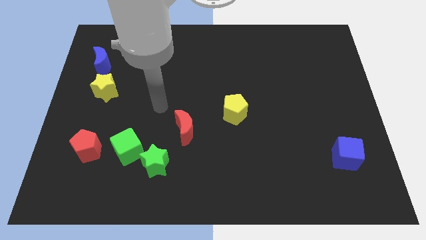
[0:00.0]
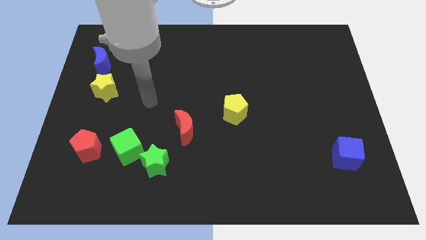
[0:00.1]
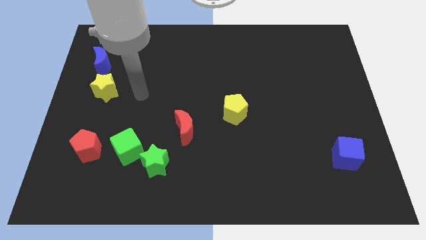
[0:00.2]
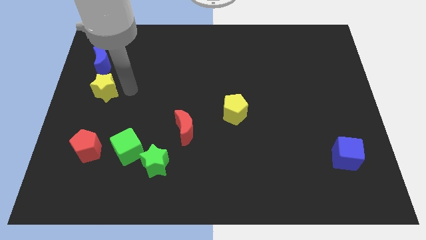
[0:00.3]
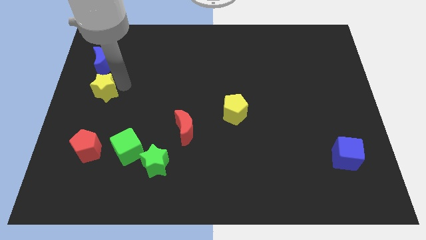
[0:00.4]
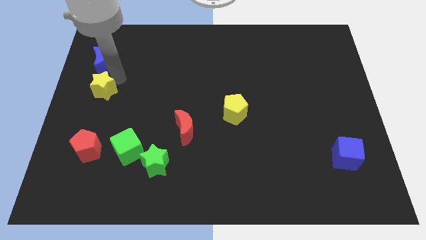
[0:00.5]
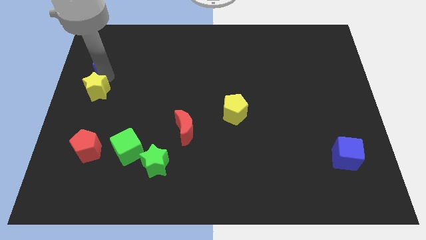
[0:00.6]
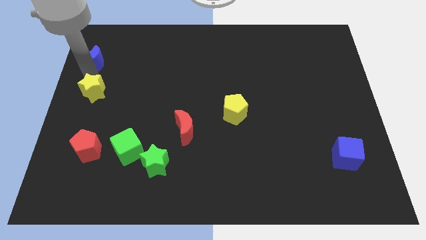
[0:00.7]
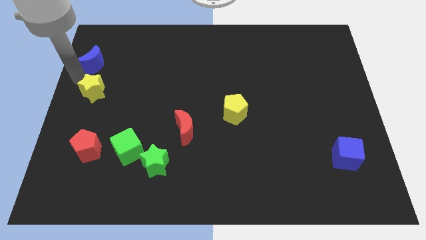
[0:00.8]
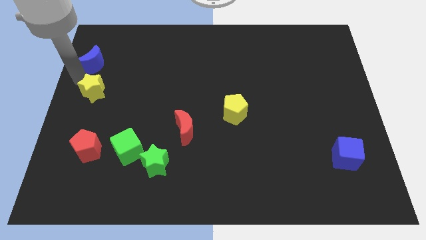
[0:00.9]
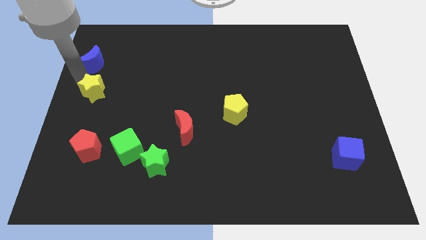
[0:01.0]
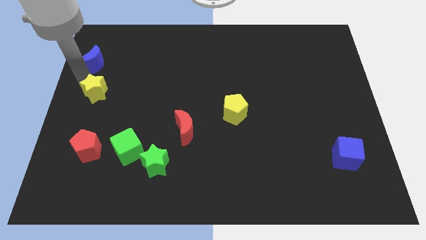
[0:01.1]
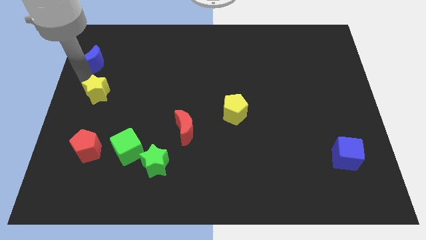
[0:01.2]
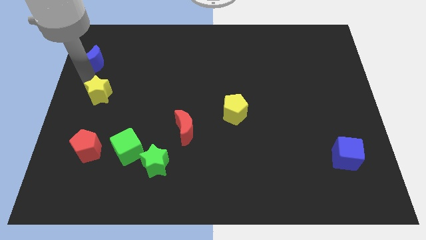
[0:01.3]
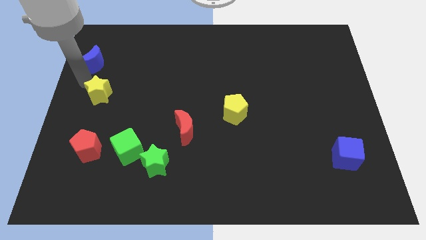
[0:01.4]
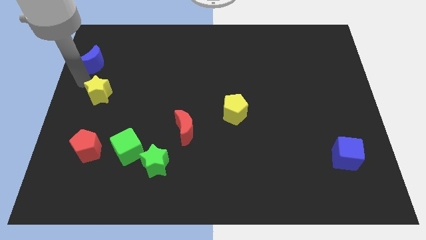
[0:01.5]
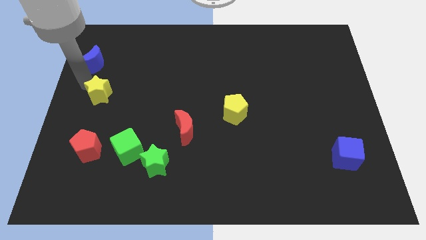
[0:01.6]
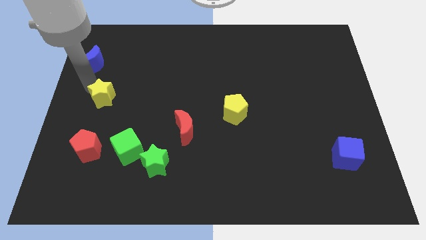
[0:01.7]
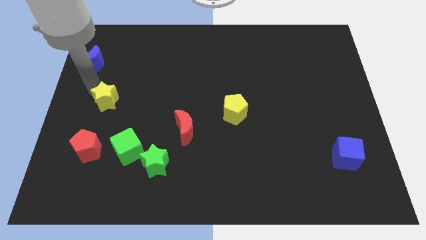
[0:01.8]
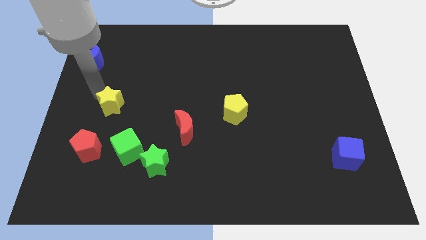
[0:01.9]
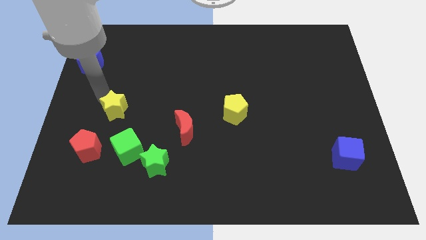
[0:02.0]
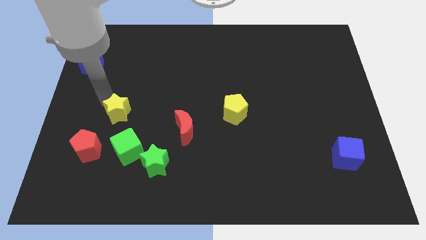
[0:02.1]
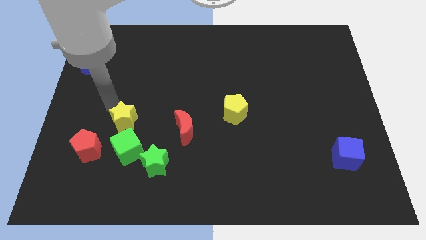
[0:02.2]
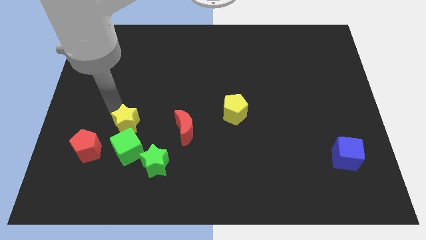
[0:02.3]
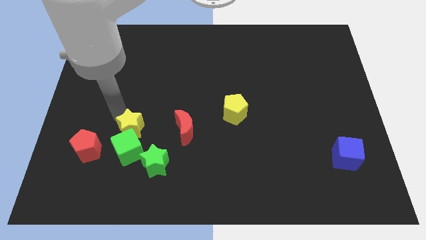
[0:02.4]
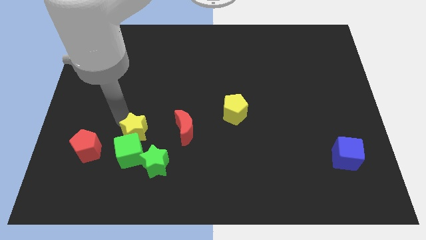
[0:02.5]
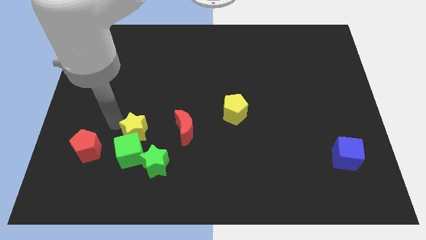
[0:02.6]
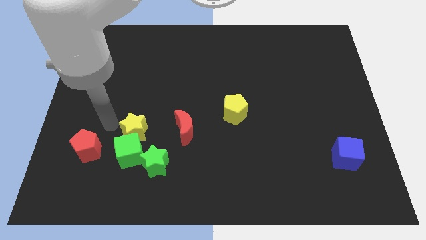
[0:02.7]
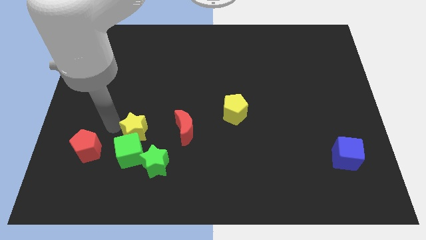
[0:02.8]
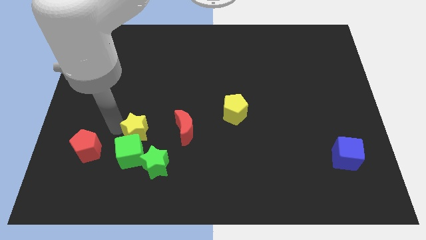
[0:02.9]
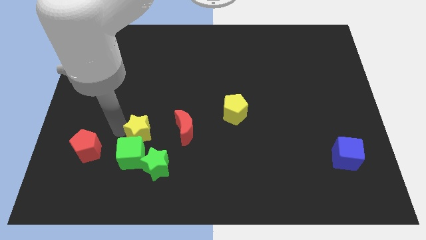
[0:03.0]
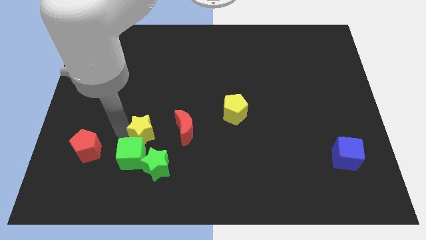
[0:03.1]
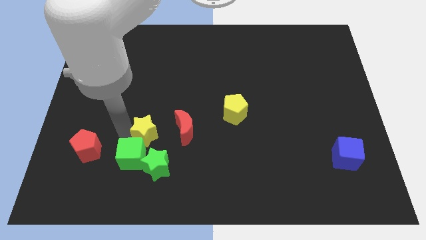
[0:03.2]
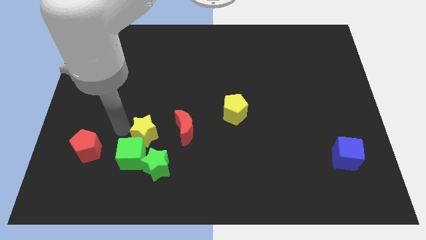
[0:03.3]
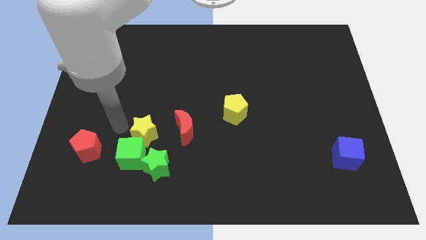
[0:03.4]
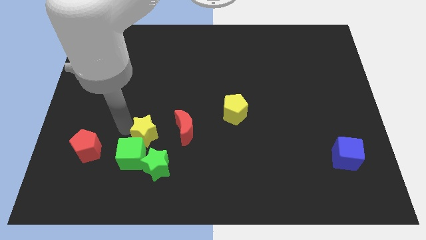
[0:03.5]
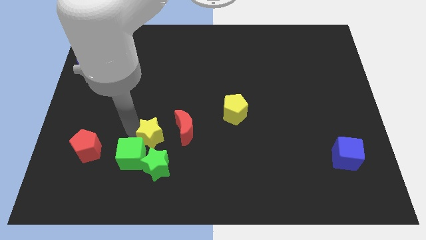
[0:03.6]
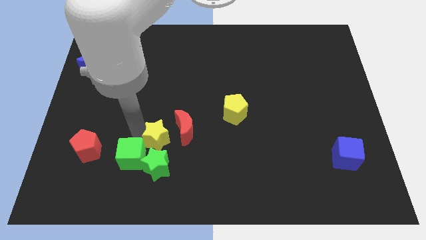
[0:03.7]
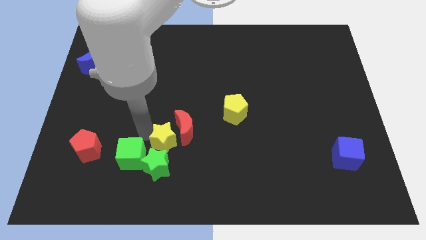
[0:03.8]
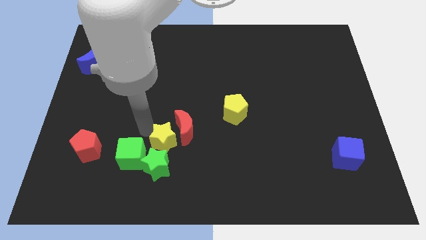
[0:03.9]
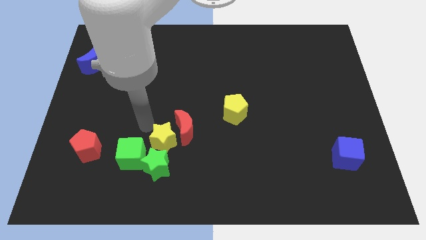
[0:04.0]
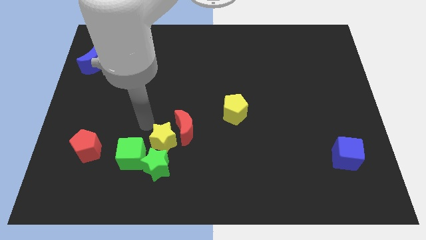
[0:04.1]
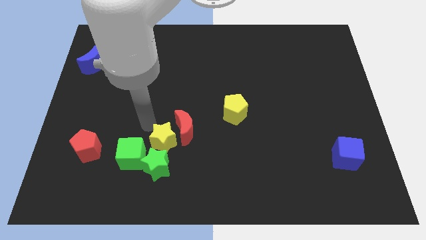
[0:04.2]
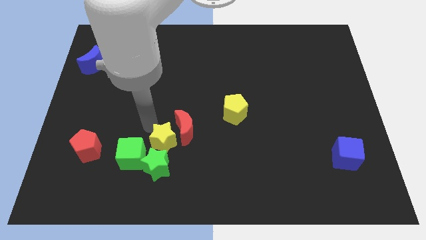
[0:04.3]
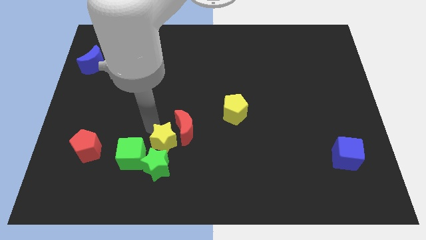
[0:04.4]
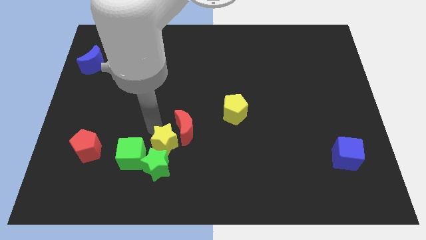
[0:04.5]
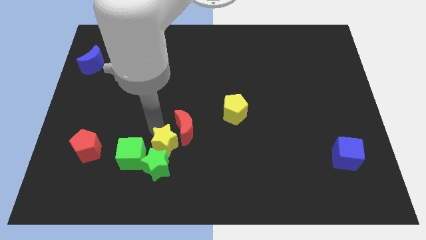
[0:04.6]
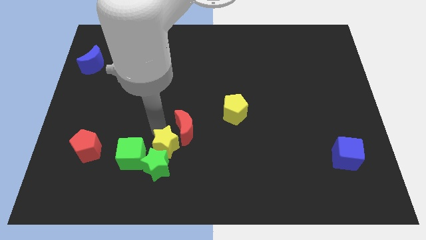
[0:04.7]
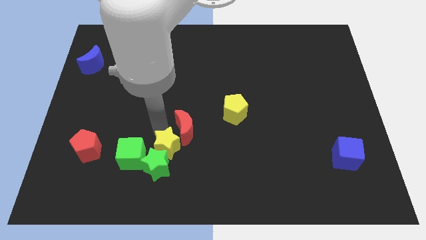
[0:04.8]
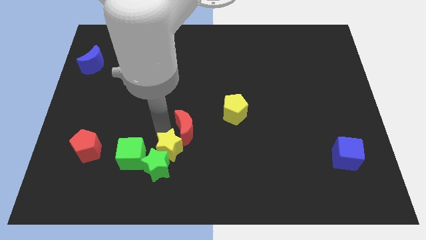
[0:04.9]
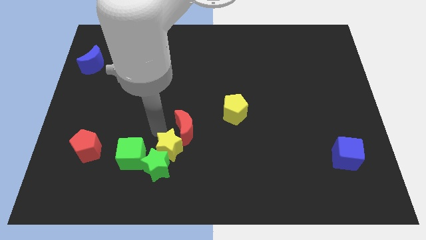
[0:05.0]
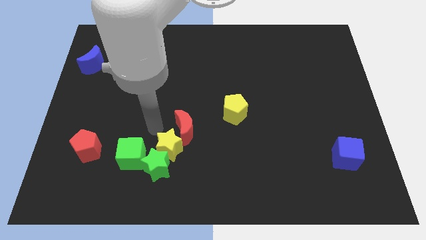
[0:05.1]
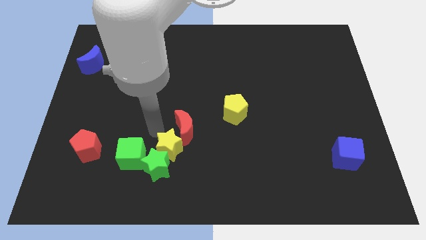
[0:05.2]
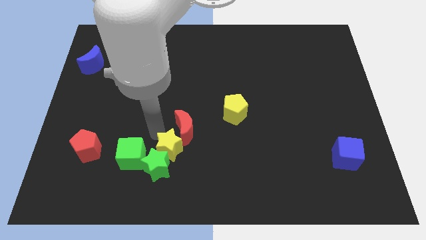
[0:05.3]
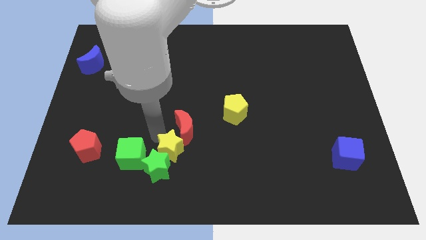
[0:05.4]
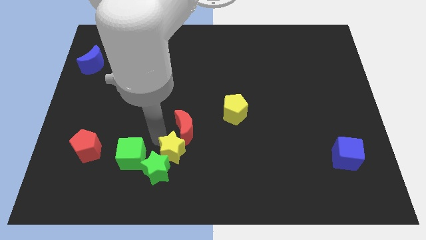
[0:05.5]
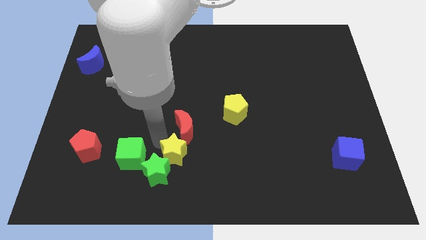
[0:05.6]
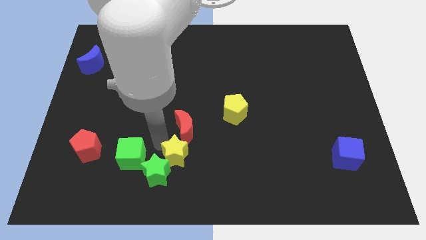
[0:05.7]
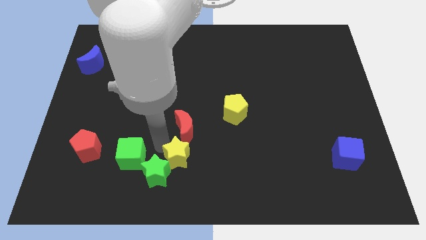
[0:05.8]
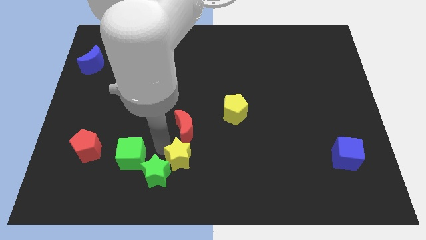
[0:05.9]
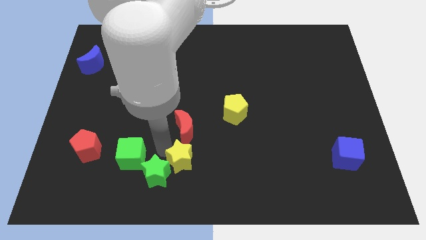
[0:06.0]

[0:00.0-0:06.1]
put the yellow star to the bottom side

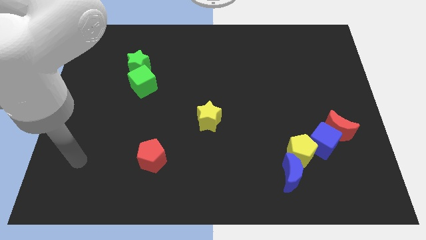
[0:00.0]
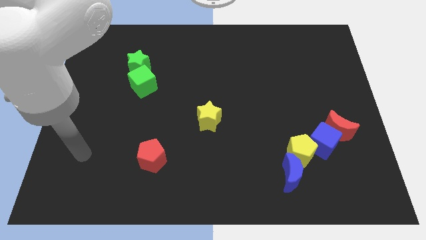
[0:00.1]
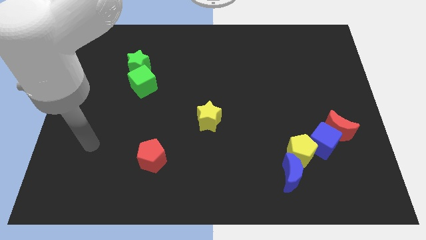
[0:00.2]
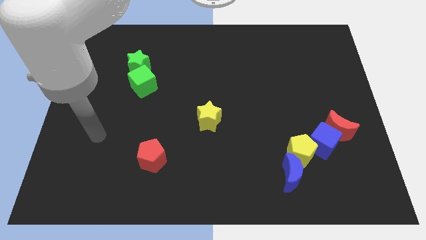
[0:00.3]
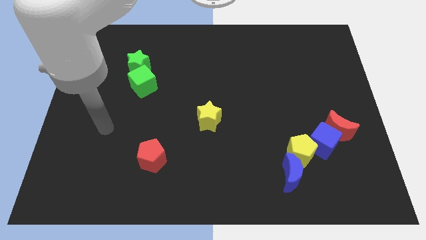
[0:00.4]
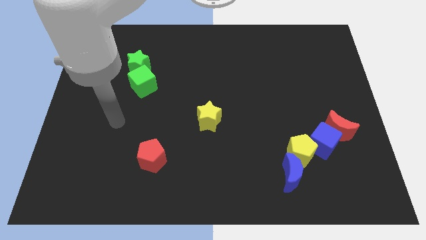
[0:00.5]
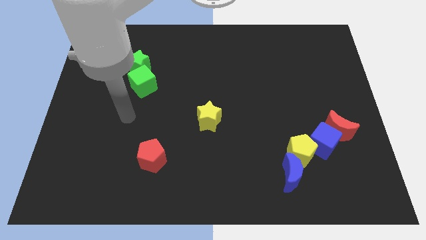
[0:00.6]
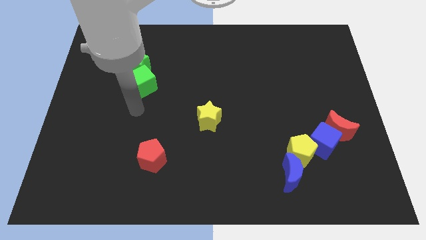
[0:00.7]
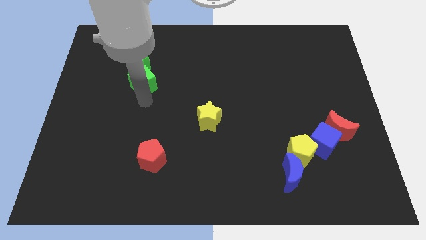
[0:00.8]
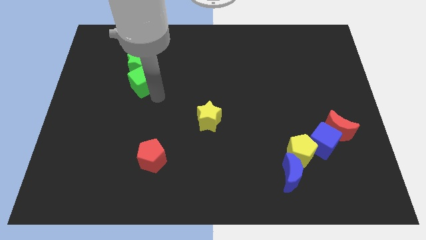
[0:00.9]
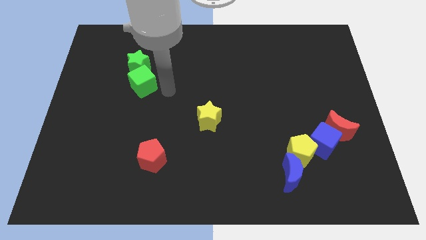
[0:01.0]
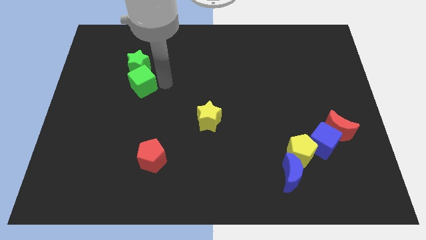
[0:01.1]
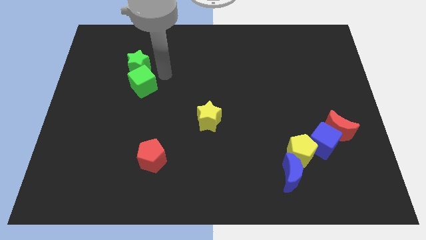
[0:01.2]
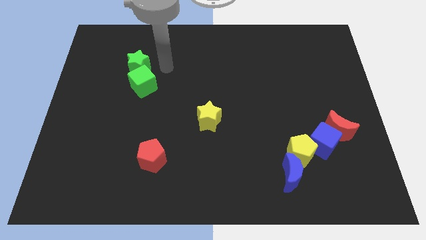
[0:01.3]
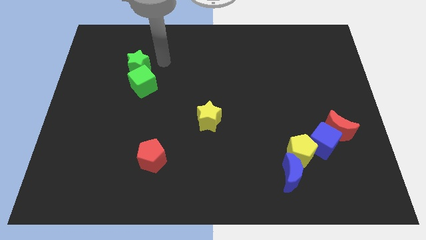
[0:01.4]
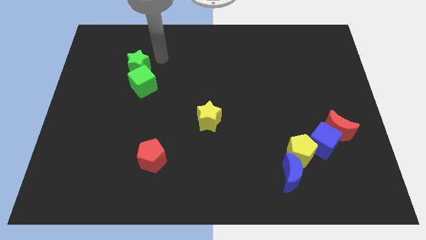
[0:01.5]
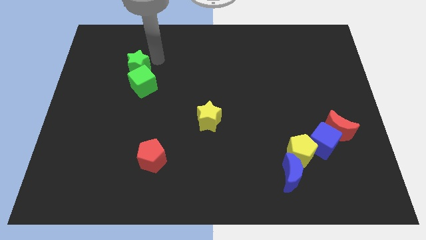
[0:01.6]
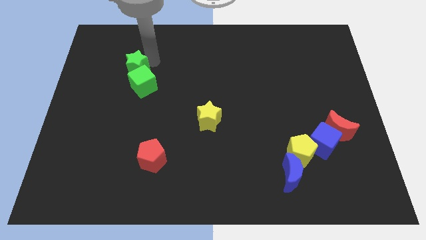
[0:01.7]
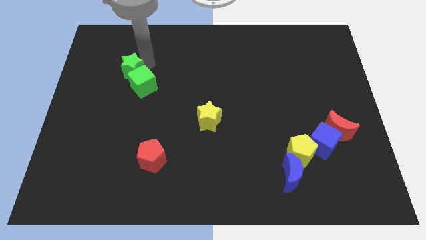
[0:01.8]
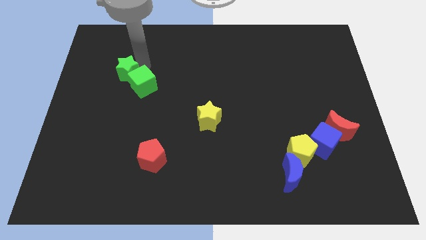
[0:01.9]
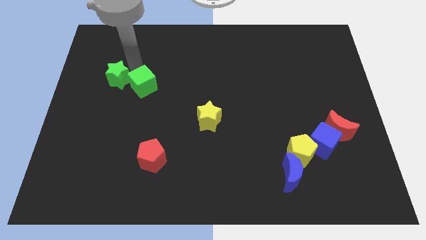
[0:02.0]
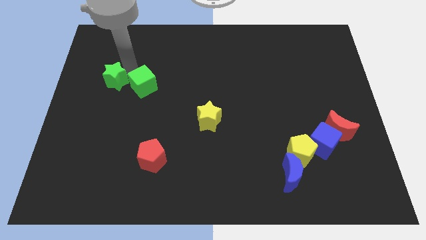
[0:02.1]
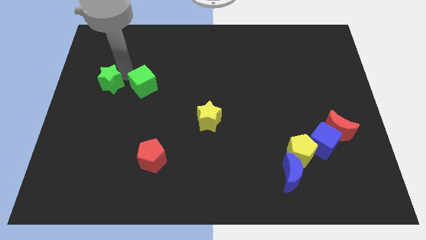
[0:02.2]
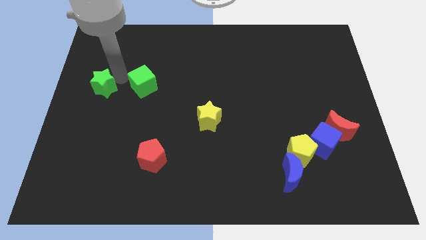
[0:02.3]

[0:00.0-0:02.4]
put the green star to the left side of the board
